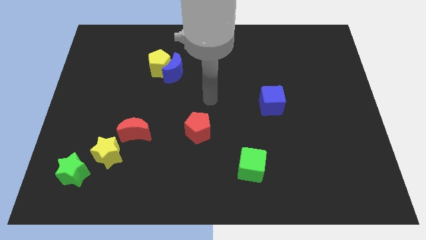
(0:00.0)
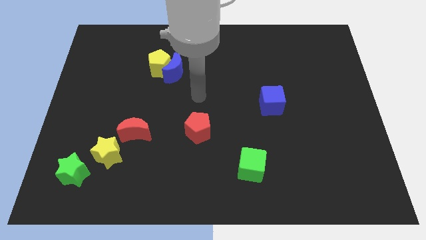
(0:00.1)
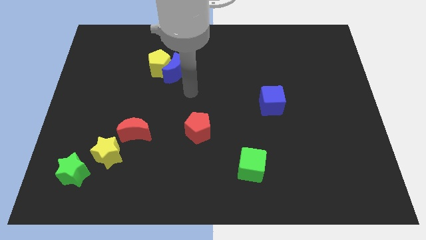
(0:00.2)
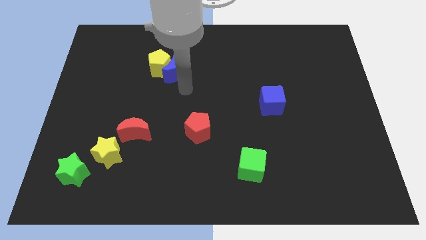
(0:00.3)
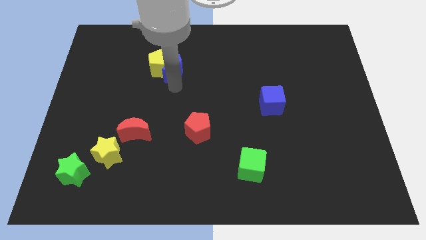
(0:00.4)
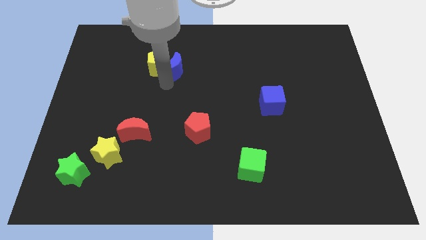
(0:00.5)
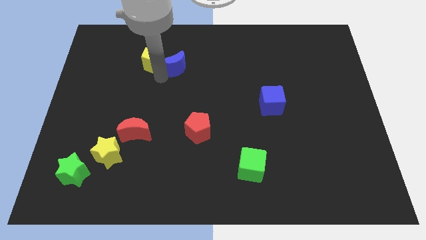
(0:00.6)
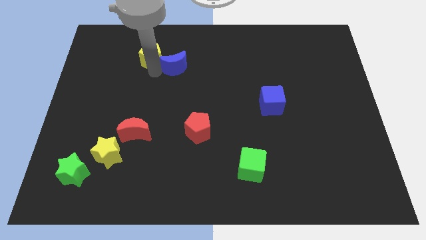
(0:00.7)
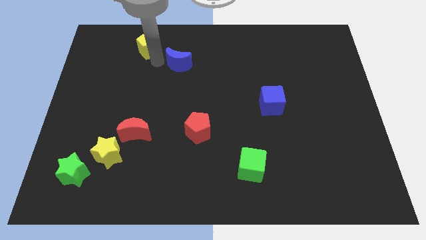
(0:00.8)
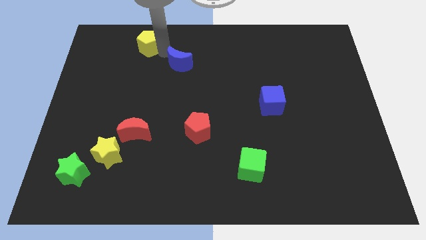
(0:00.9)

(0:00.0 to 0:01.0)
pull the blue moon apart from the yellow pentagon

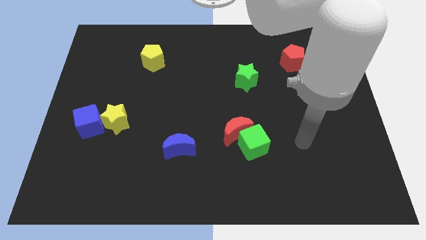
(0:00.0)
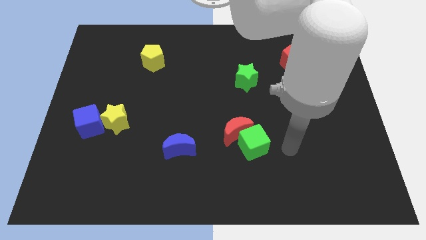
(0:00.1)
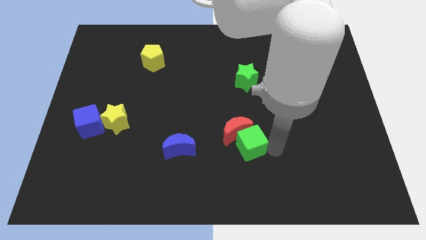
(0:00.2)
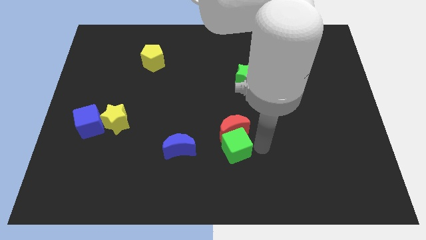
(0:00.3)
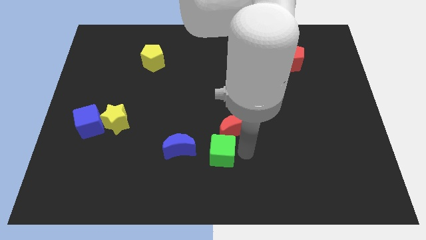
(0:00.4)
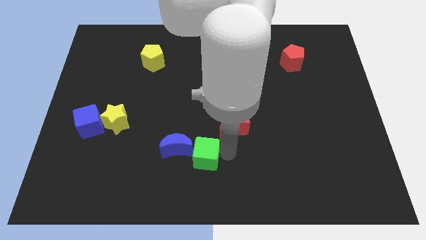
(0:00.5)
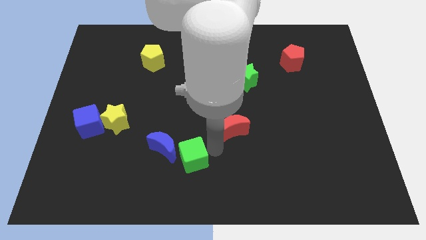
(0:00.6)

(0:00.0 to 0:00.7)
separate the red moon from the green cube

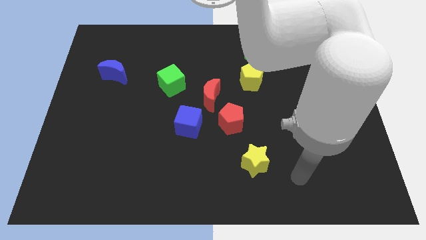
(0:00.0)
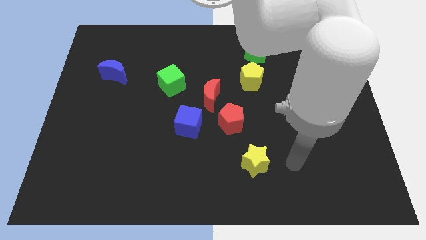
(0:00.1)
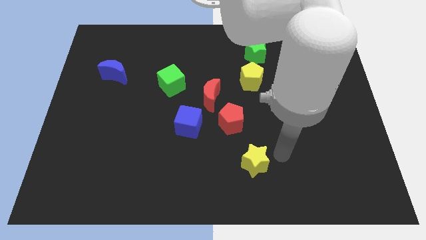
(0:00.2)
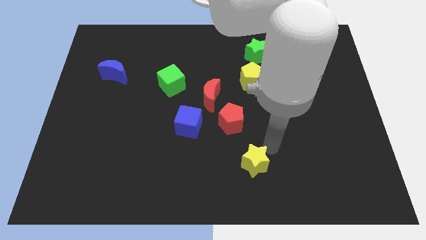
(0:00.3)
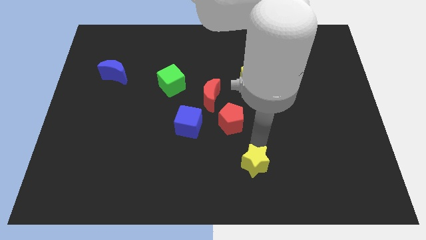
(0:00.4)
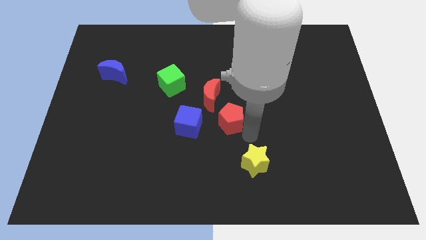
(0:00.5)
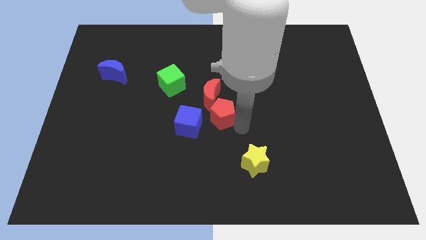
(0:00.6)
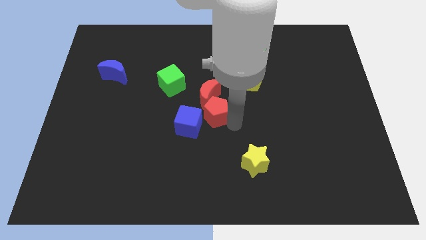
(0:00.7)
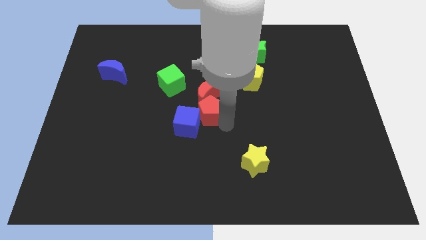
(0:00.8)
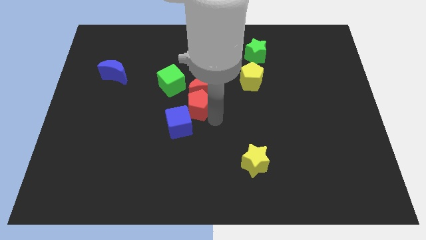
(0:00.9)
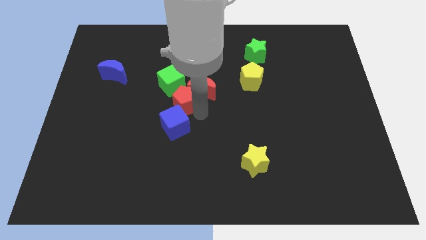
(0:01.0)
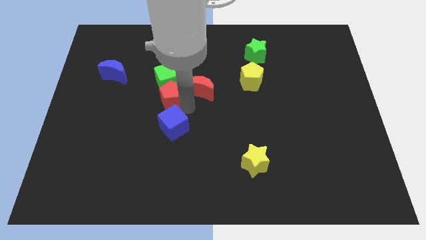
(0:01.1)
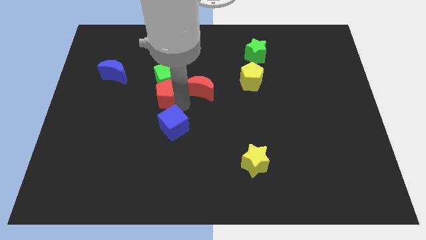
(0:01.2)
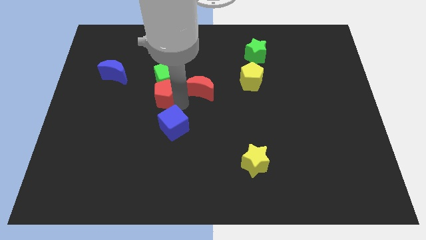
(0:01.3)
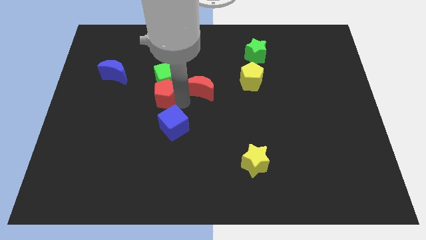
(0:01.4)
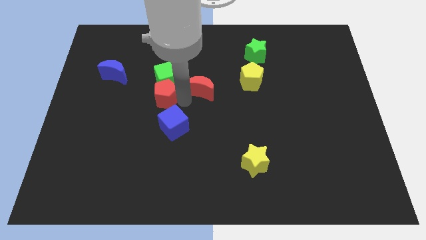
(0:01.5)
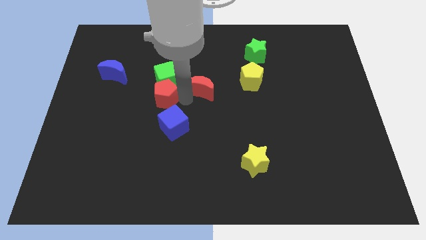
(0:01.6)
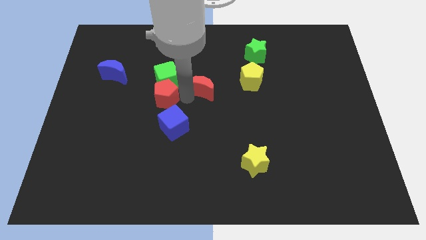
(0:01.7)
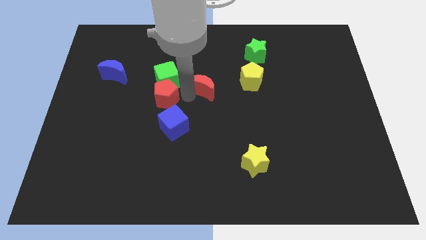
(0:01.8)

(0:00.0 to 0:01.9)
move the red moon away from the red pentagon and blue cube

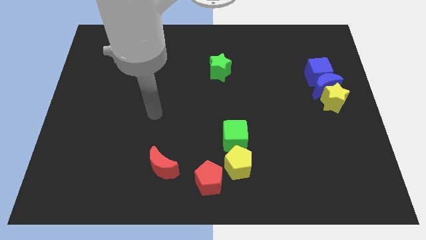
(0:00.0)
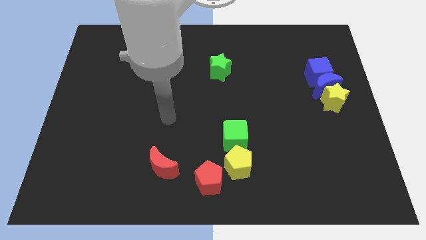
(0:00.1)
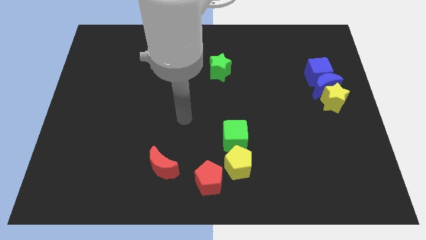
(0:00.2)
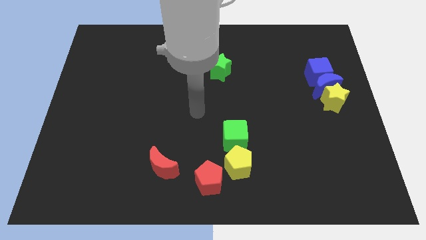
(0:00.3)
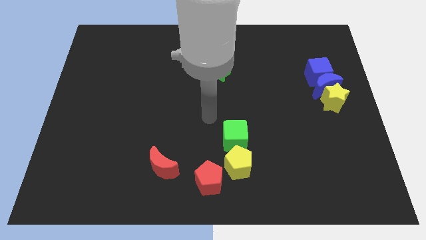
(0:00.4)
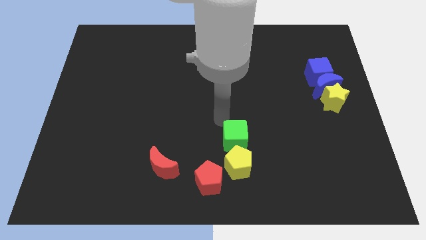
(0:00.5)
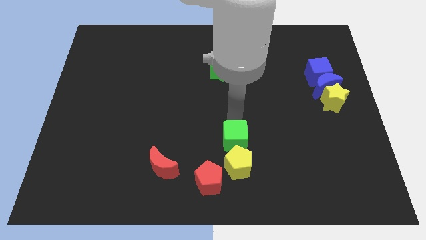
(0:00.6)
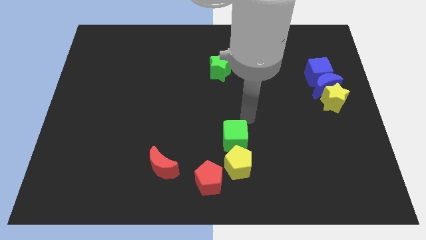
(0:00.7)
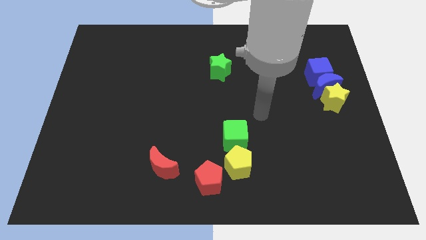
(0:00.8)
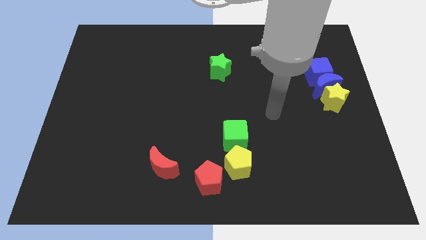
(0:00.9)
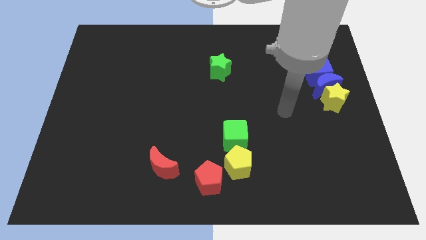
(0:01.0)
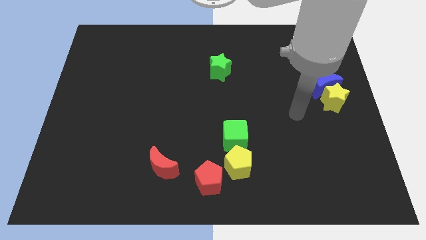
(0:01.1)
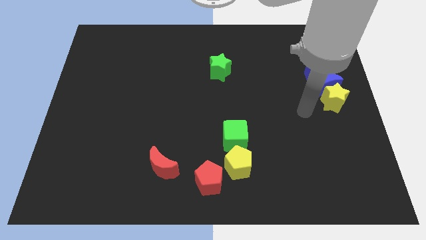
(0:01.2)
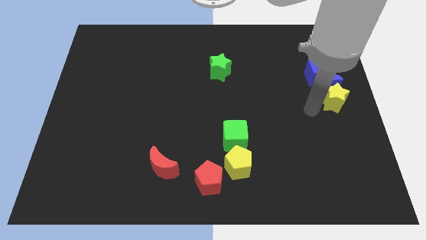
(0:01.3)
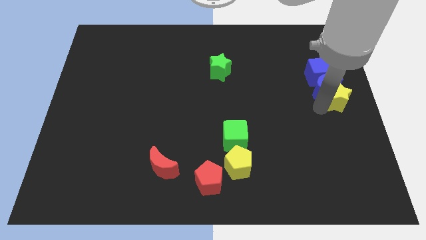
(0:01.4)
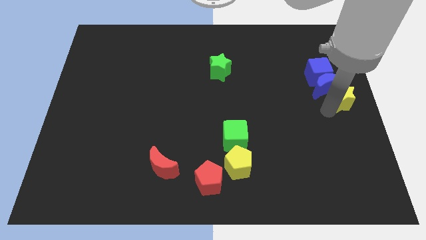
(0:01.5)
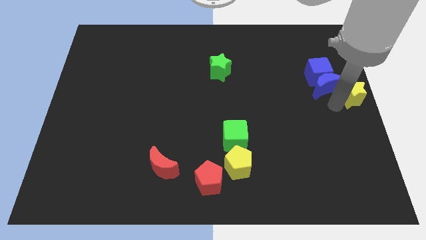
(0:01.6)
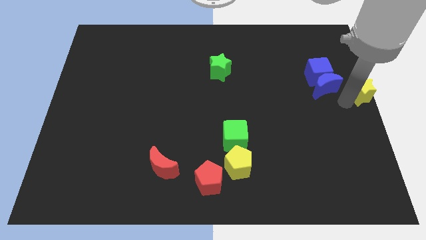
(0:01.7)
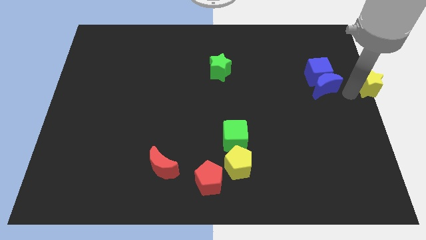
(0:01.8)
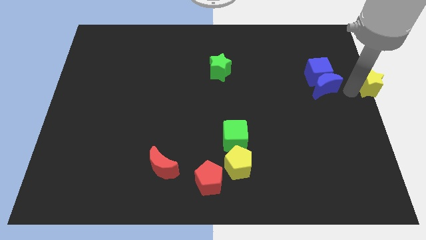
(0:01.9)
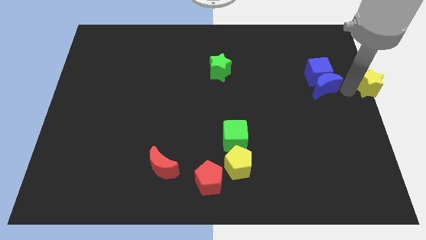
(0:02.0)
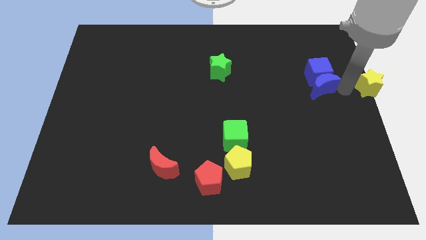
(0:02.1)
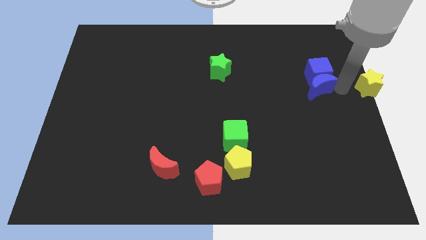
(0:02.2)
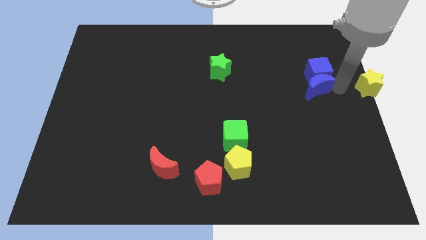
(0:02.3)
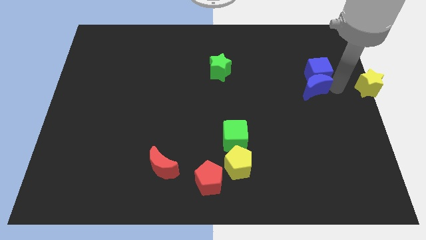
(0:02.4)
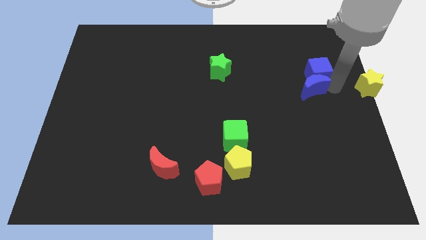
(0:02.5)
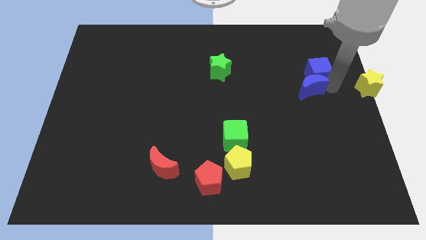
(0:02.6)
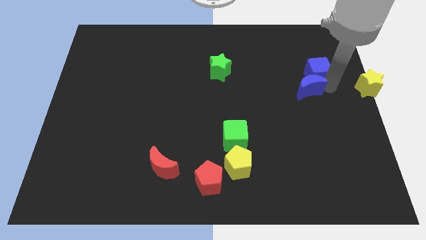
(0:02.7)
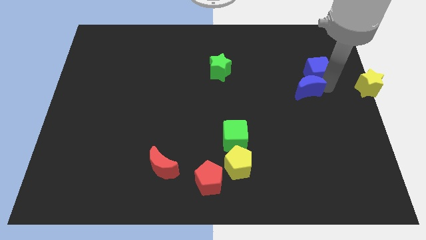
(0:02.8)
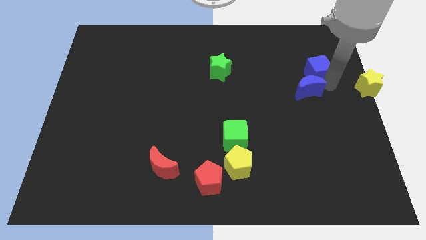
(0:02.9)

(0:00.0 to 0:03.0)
move the blue moon away from the blue cube and yellow star

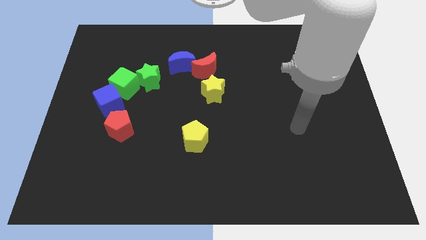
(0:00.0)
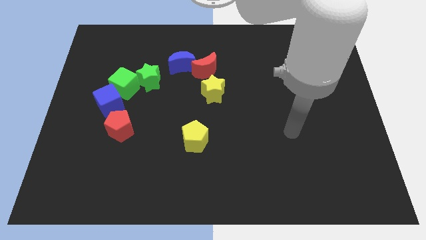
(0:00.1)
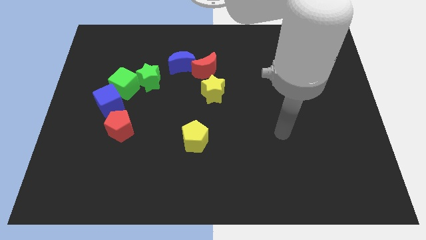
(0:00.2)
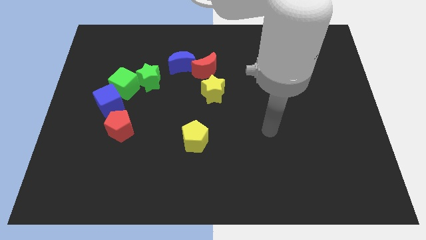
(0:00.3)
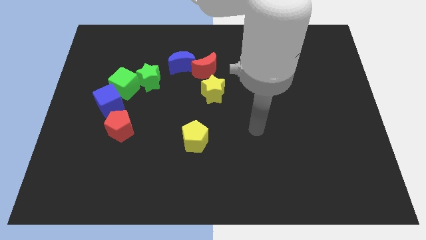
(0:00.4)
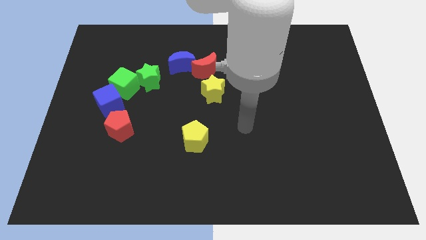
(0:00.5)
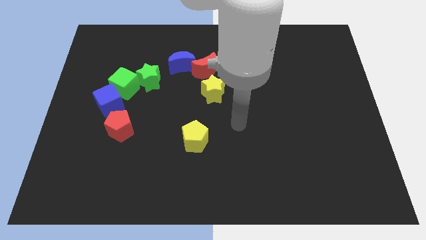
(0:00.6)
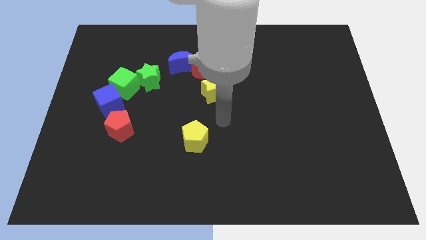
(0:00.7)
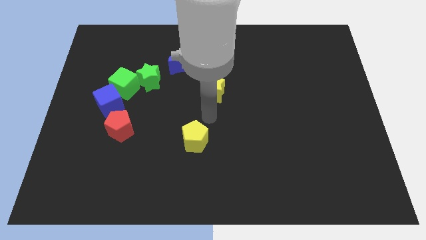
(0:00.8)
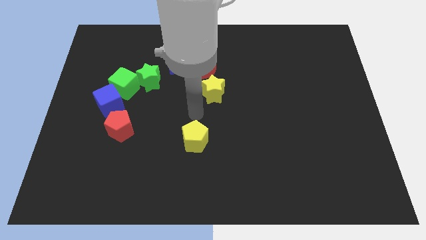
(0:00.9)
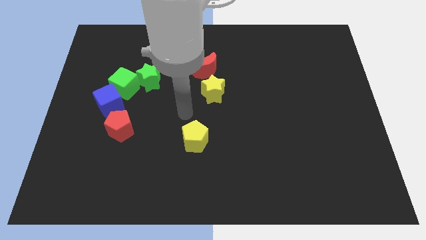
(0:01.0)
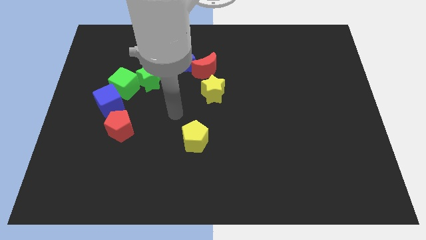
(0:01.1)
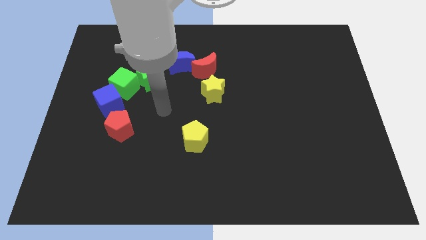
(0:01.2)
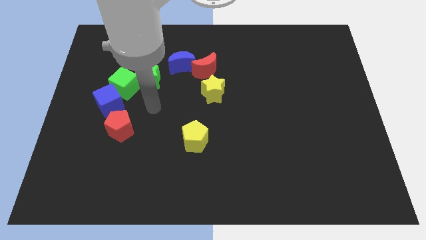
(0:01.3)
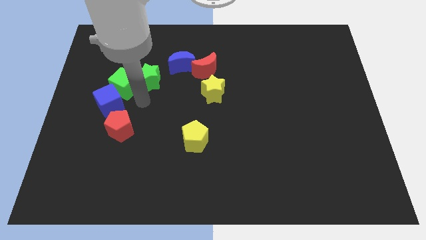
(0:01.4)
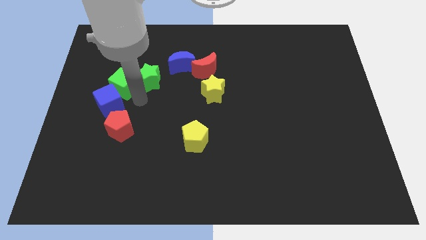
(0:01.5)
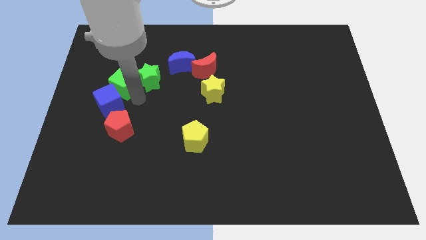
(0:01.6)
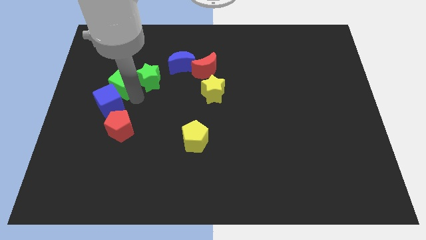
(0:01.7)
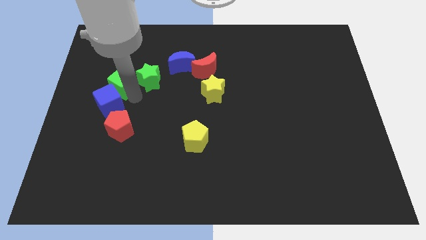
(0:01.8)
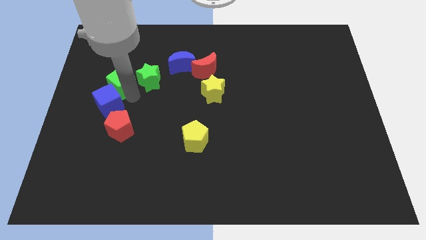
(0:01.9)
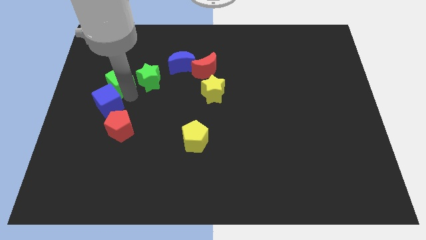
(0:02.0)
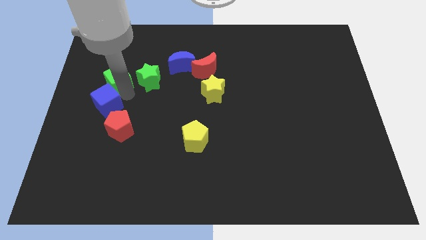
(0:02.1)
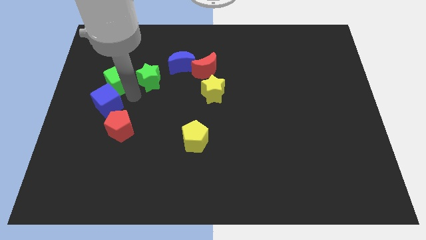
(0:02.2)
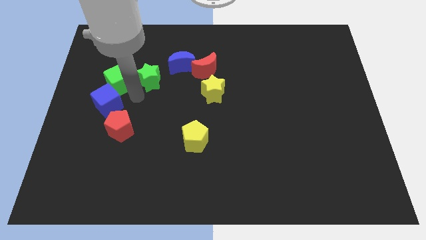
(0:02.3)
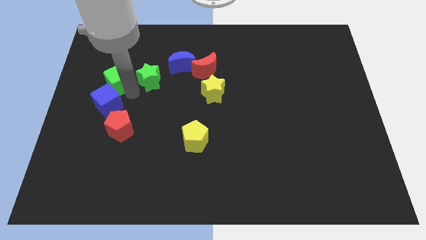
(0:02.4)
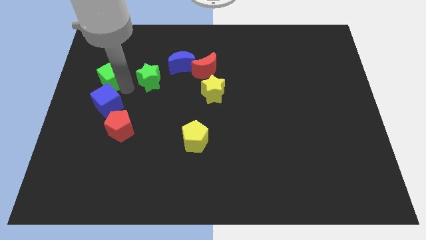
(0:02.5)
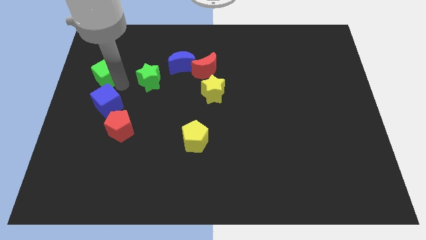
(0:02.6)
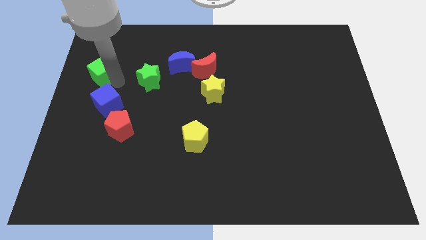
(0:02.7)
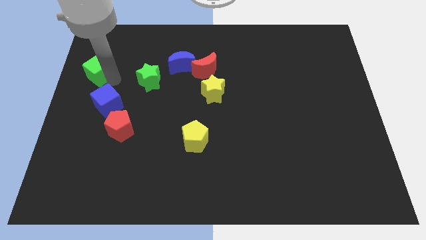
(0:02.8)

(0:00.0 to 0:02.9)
move the green cube away from the blue cube and green star
